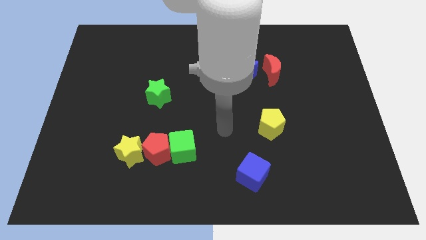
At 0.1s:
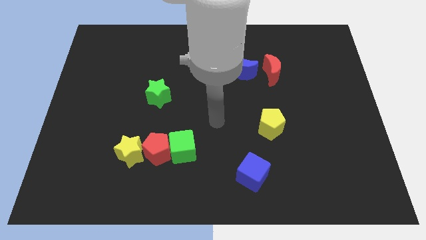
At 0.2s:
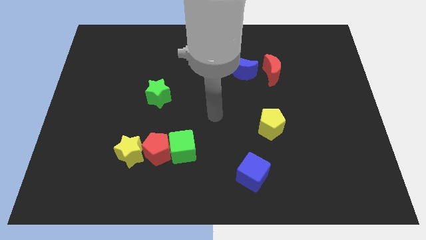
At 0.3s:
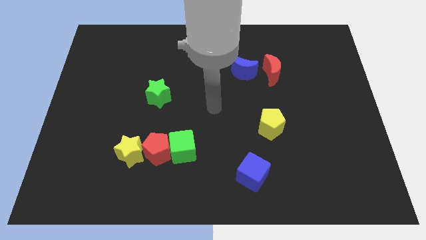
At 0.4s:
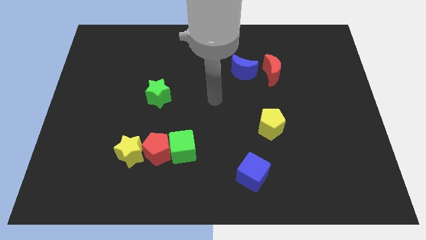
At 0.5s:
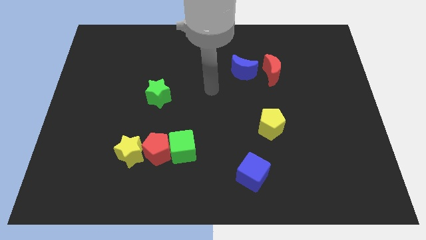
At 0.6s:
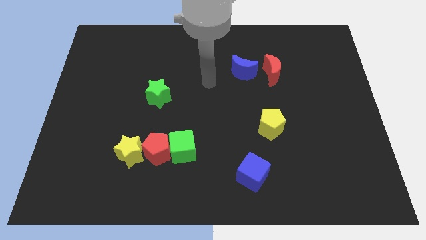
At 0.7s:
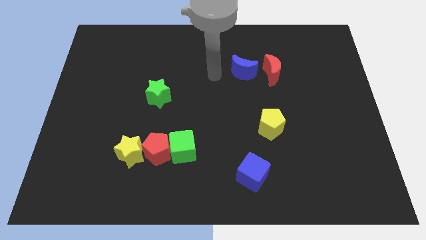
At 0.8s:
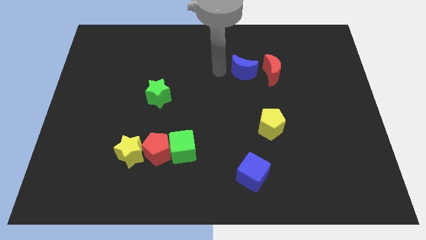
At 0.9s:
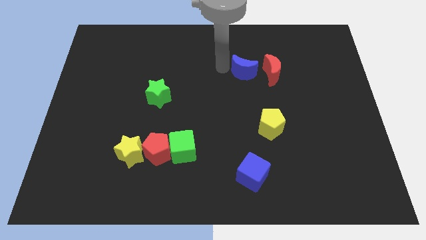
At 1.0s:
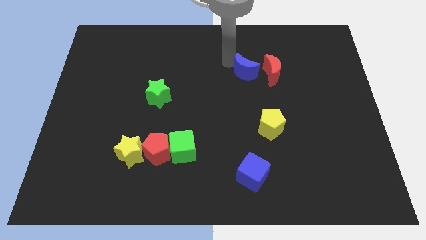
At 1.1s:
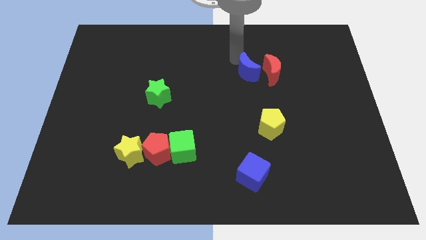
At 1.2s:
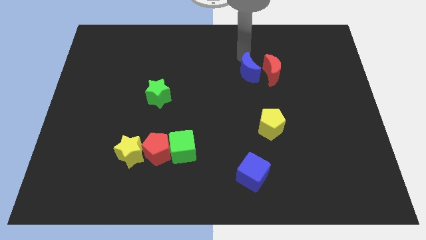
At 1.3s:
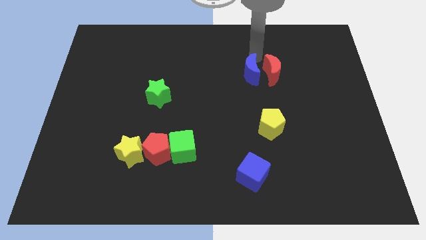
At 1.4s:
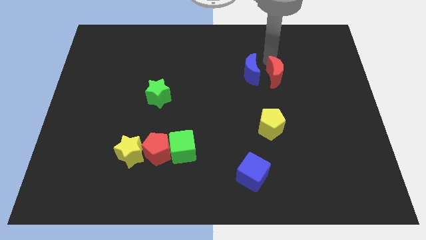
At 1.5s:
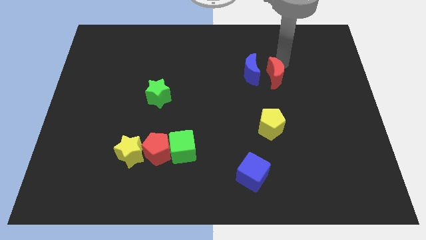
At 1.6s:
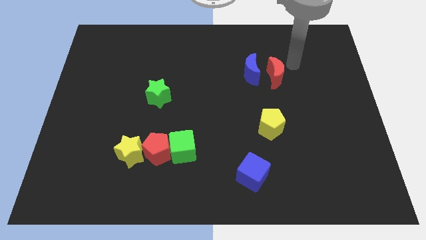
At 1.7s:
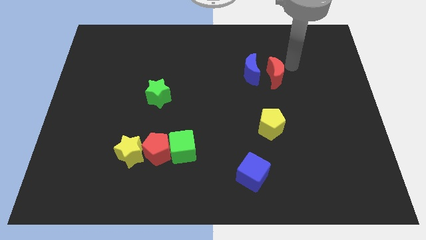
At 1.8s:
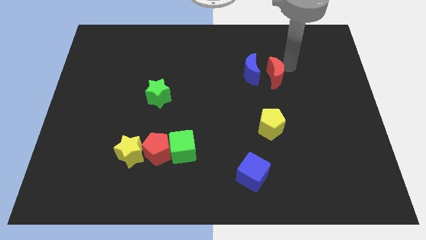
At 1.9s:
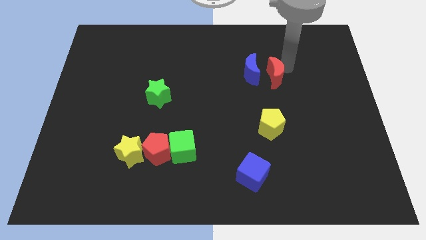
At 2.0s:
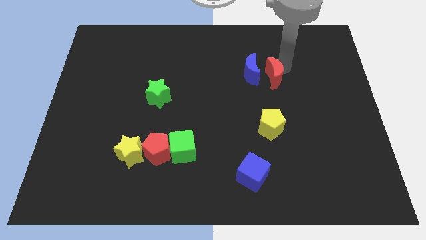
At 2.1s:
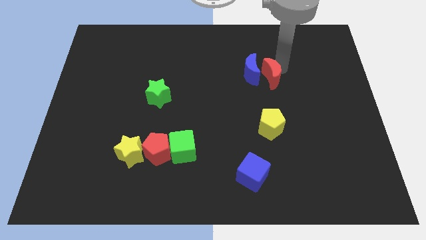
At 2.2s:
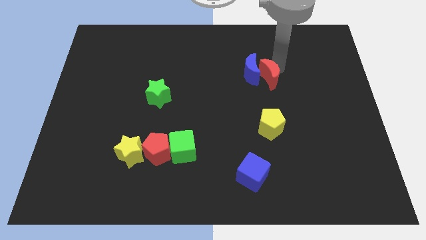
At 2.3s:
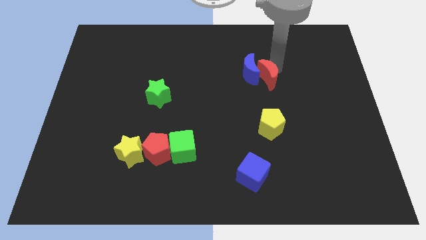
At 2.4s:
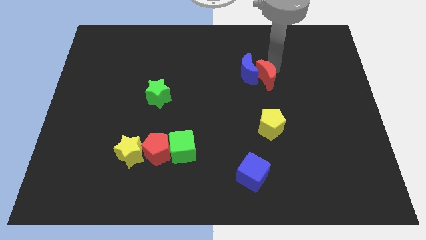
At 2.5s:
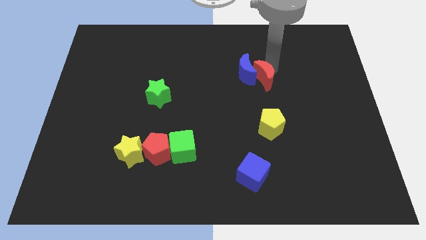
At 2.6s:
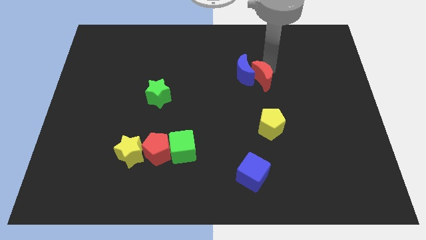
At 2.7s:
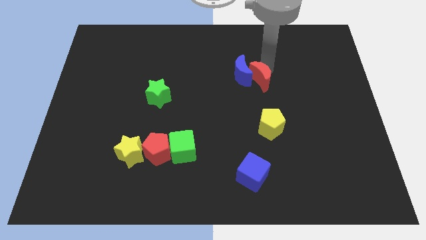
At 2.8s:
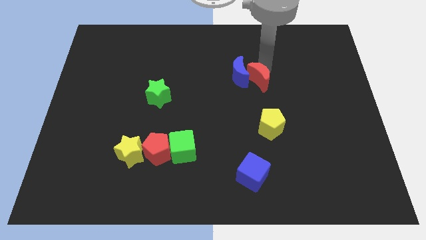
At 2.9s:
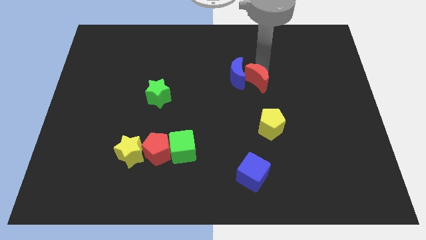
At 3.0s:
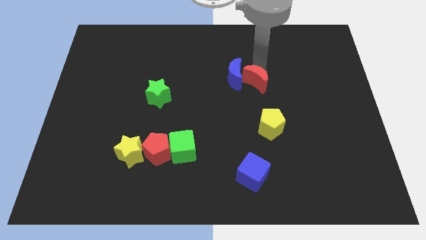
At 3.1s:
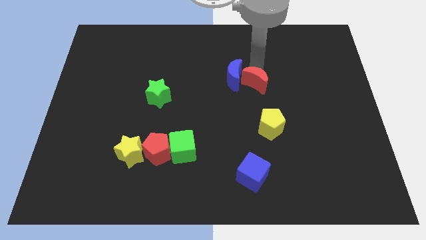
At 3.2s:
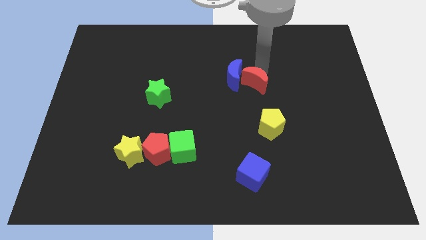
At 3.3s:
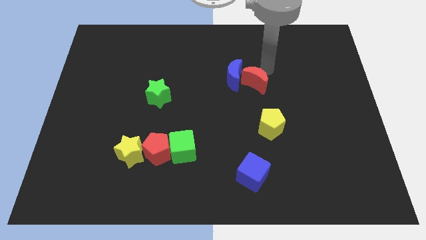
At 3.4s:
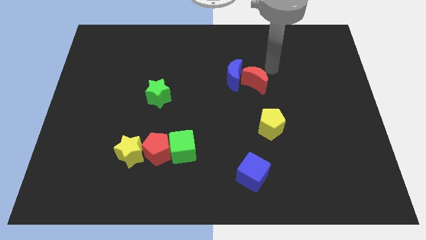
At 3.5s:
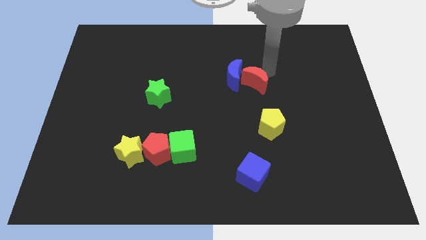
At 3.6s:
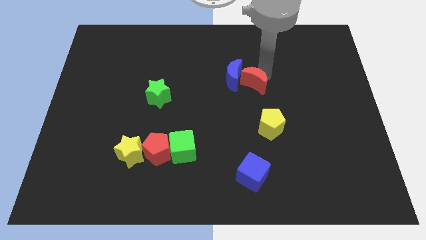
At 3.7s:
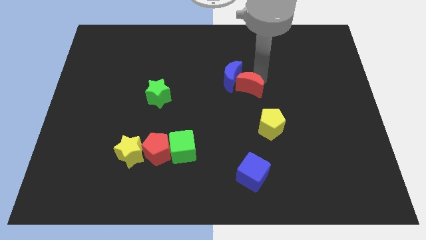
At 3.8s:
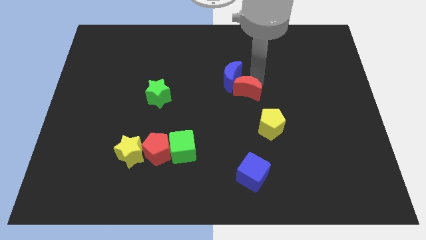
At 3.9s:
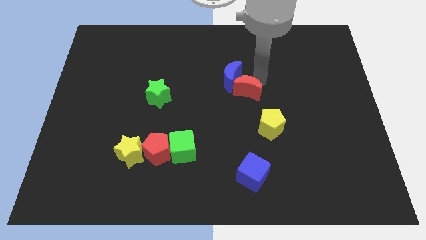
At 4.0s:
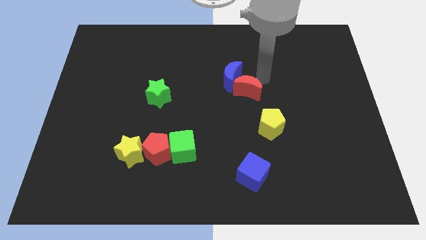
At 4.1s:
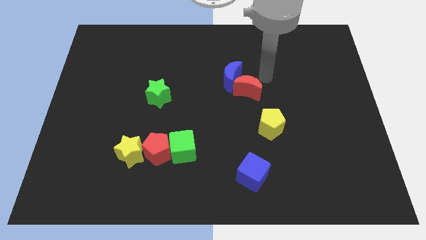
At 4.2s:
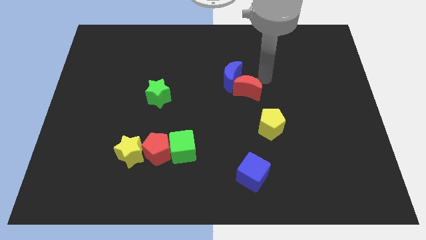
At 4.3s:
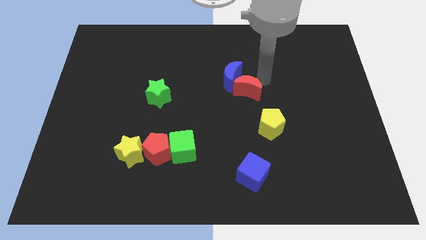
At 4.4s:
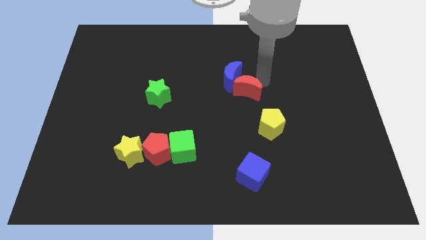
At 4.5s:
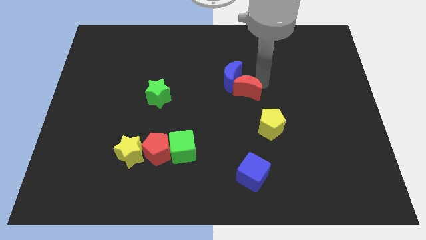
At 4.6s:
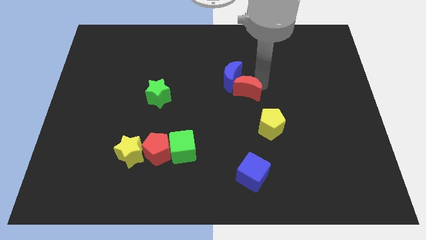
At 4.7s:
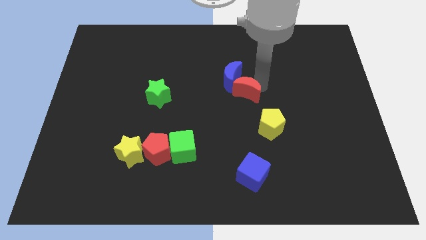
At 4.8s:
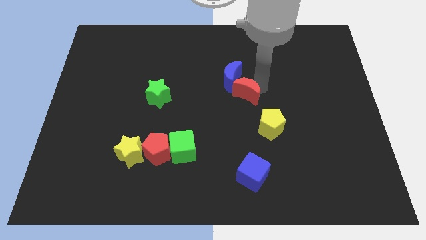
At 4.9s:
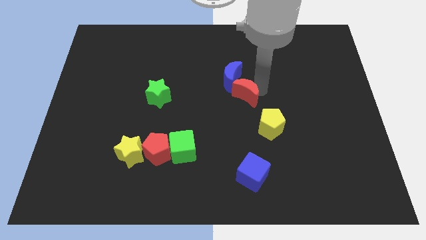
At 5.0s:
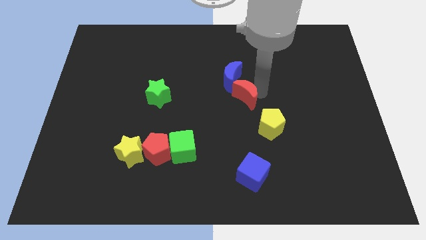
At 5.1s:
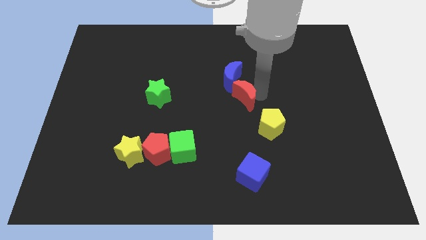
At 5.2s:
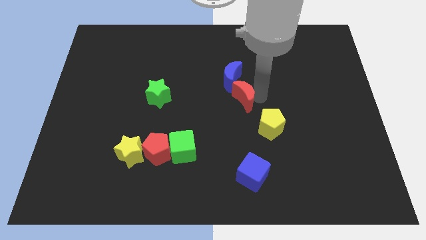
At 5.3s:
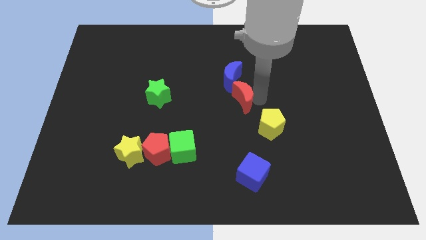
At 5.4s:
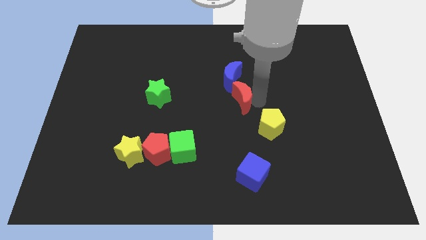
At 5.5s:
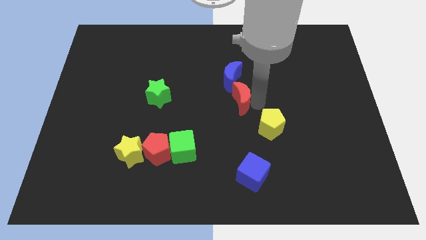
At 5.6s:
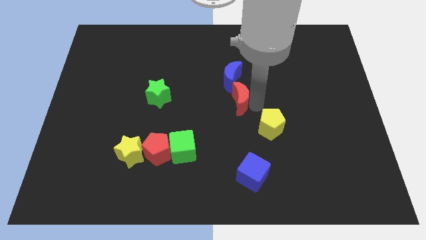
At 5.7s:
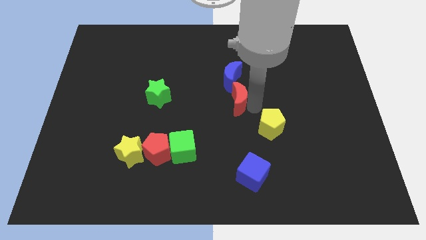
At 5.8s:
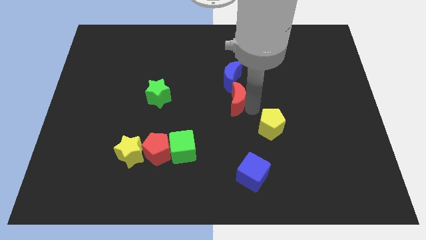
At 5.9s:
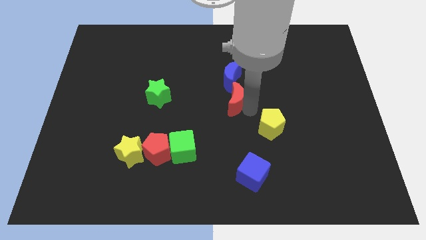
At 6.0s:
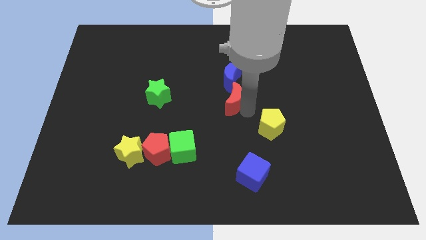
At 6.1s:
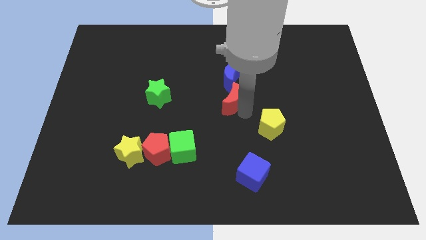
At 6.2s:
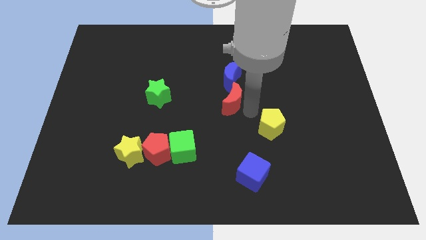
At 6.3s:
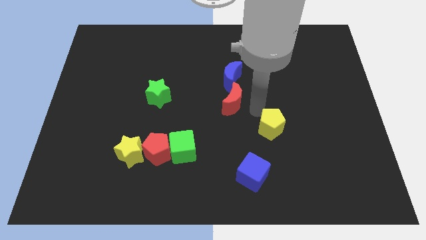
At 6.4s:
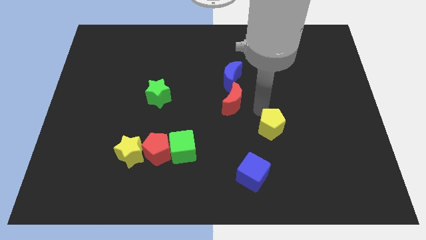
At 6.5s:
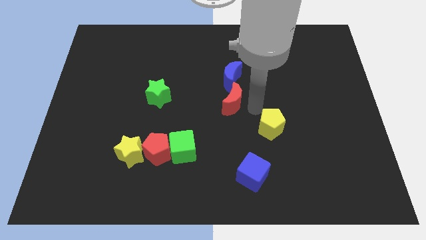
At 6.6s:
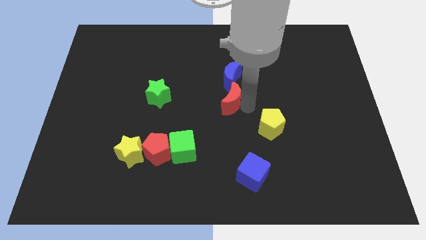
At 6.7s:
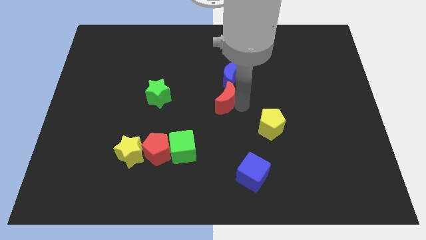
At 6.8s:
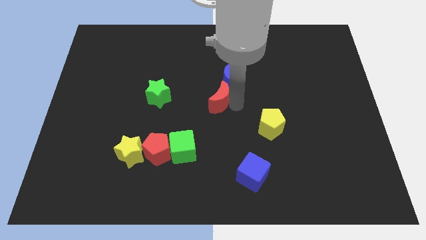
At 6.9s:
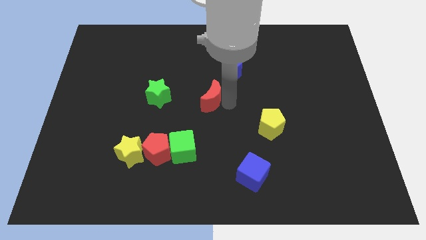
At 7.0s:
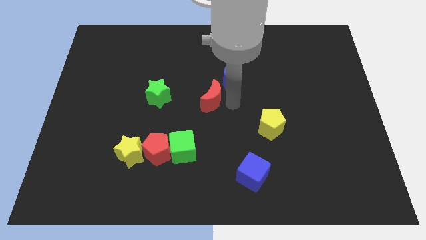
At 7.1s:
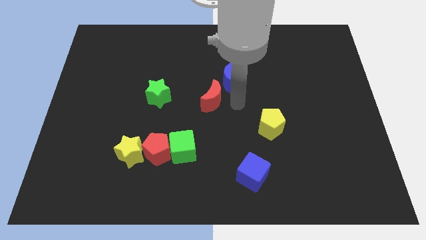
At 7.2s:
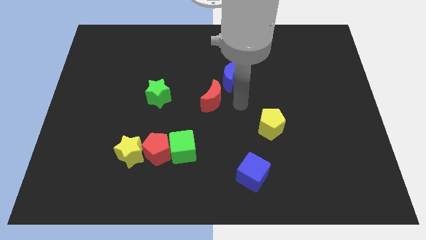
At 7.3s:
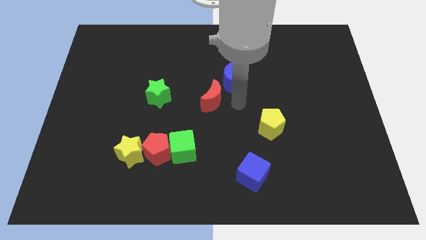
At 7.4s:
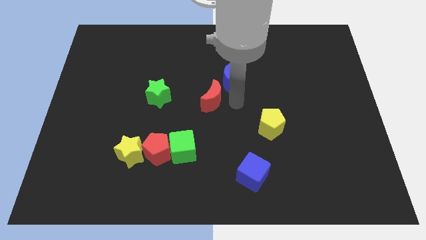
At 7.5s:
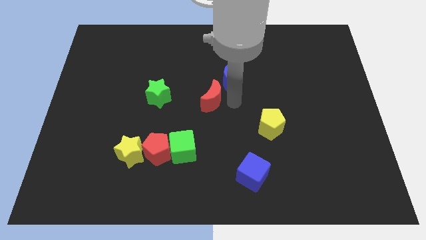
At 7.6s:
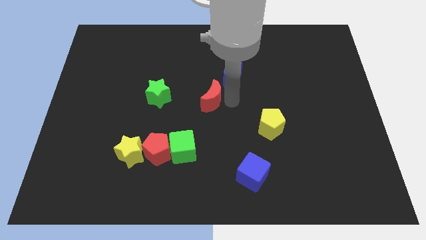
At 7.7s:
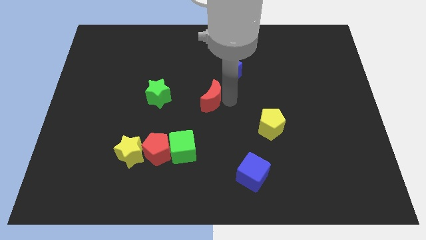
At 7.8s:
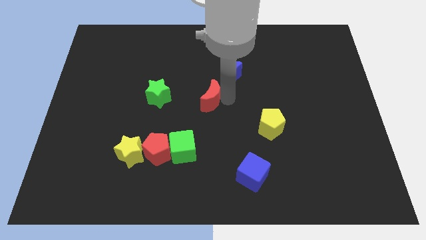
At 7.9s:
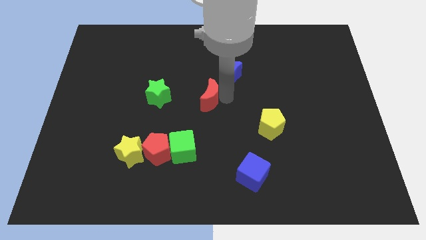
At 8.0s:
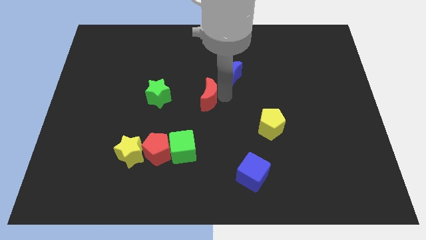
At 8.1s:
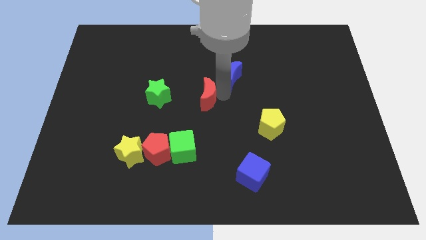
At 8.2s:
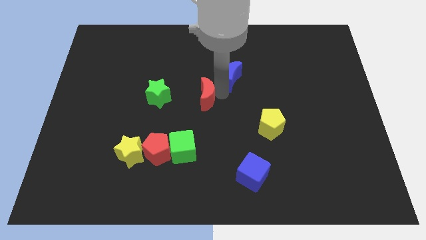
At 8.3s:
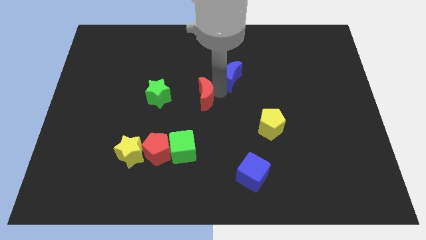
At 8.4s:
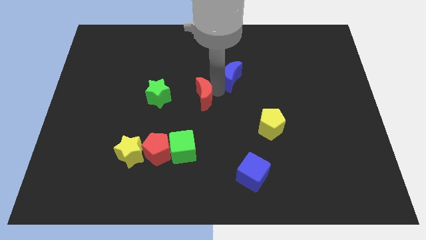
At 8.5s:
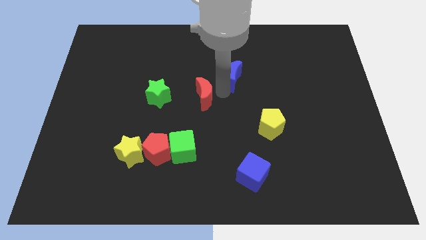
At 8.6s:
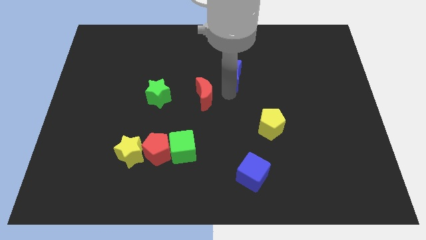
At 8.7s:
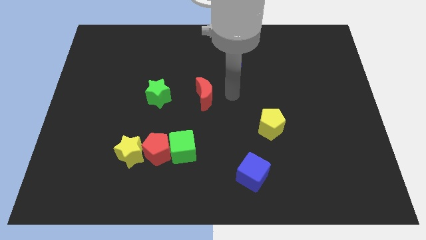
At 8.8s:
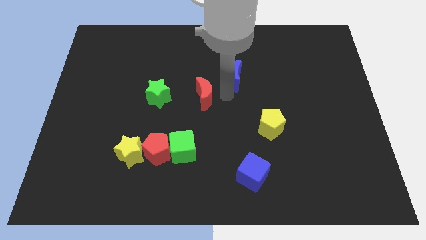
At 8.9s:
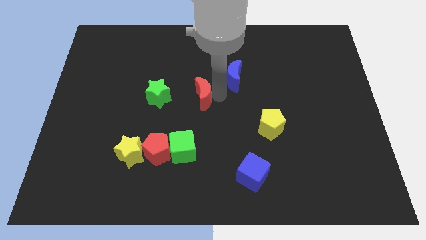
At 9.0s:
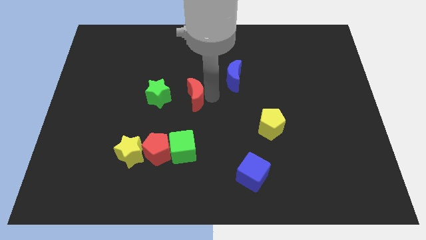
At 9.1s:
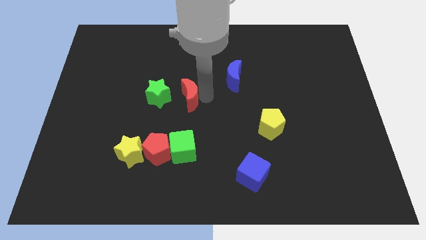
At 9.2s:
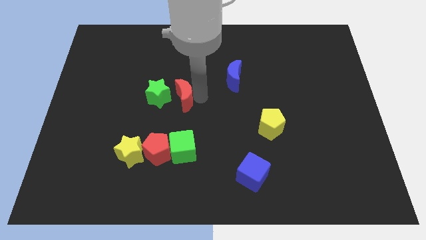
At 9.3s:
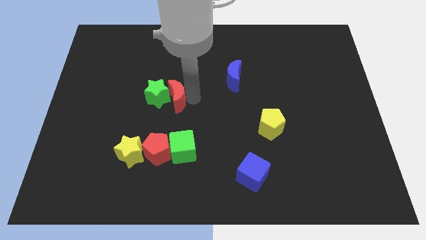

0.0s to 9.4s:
slide the red moon next to the green star
